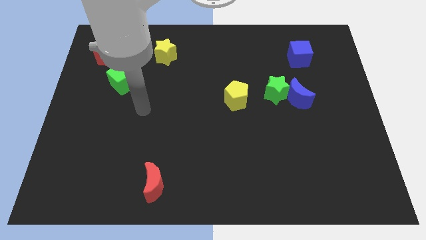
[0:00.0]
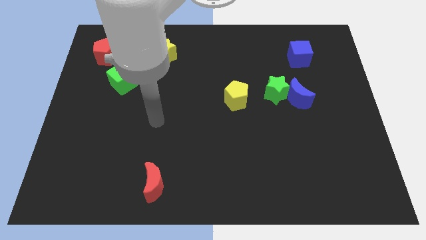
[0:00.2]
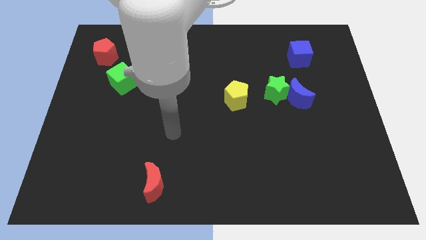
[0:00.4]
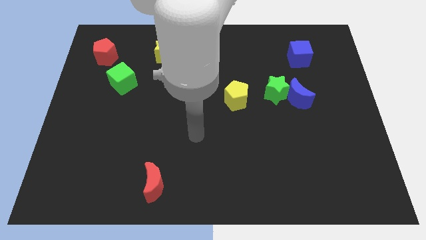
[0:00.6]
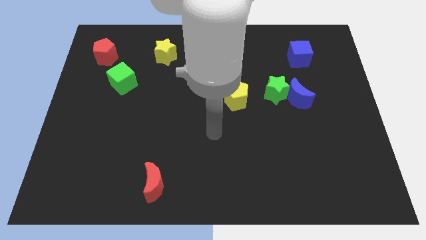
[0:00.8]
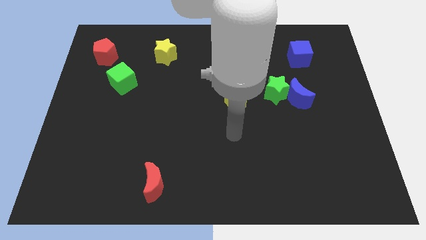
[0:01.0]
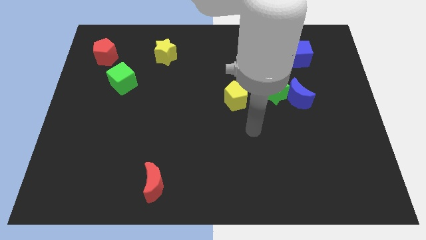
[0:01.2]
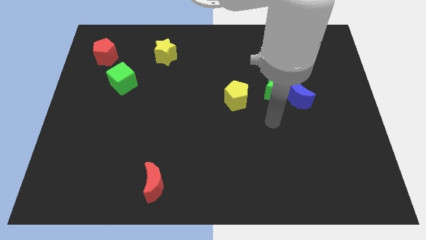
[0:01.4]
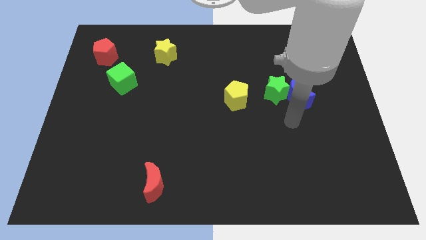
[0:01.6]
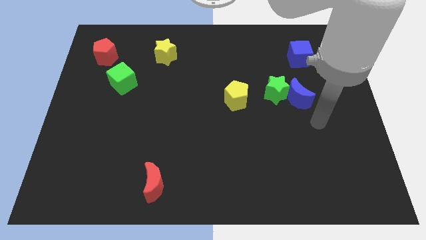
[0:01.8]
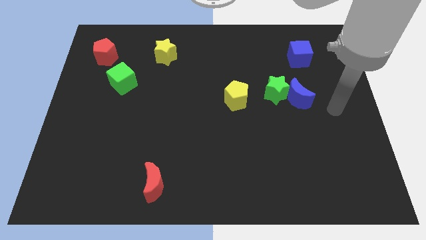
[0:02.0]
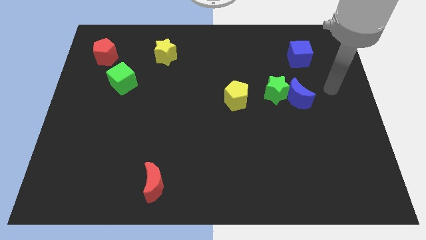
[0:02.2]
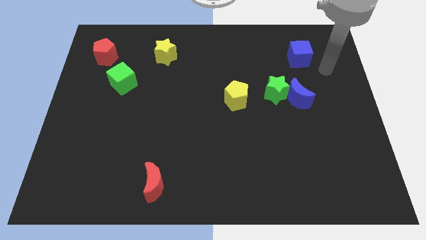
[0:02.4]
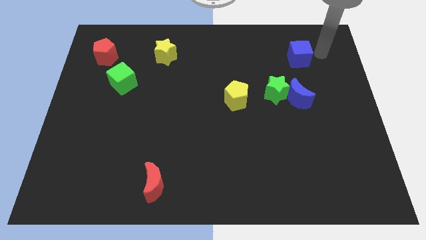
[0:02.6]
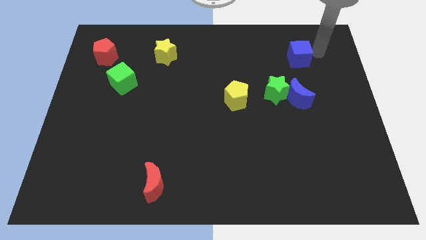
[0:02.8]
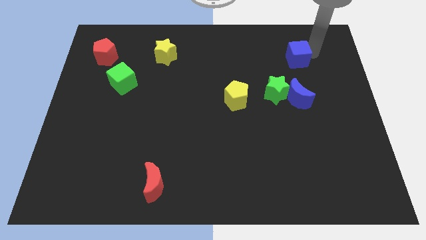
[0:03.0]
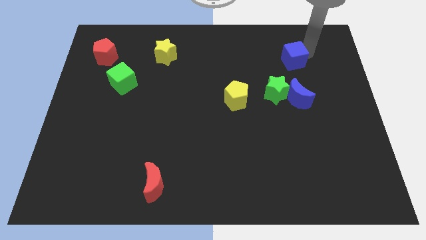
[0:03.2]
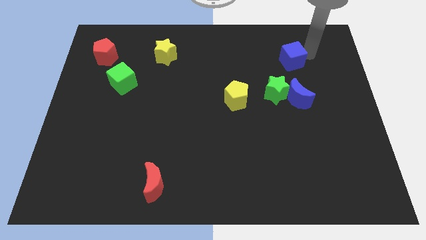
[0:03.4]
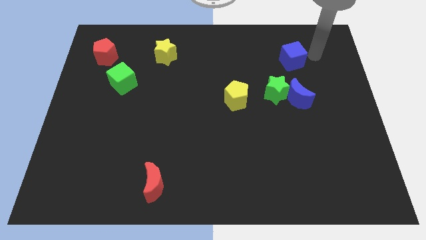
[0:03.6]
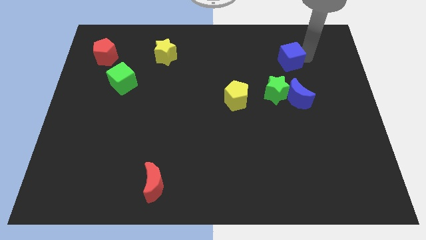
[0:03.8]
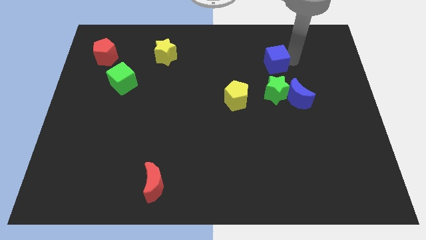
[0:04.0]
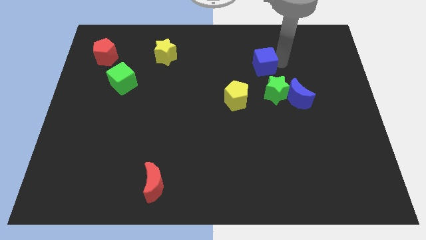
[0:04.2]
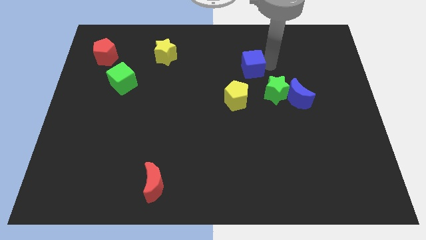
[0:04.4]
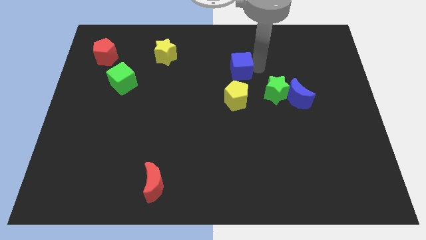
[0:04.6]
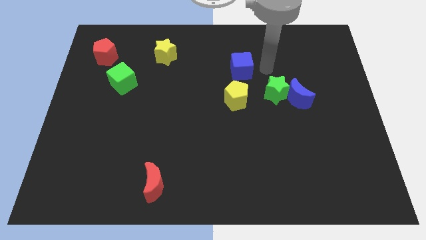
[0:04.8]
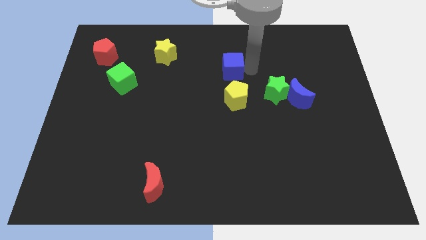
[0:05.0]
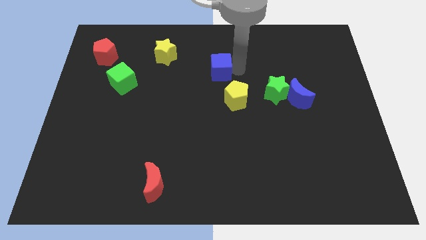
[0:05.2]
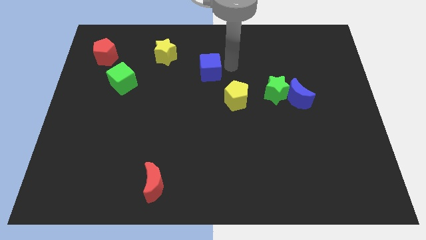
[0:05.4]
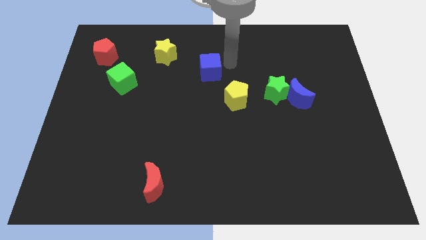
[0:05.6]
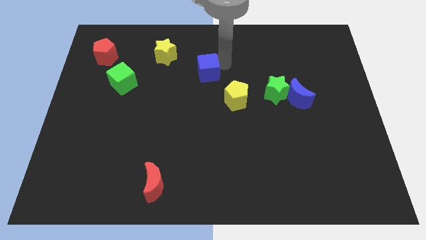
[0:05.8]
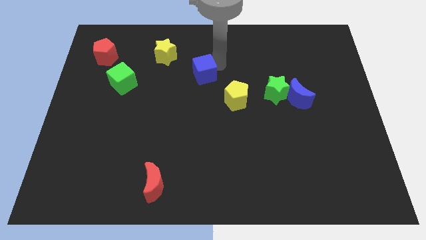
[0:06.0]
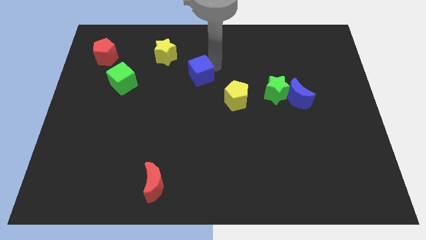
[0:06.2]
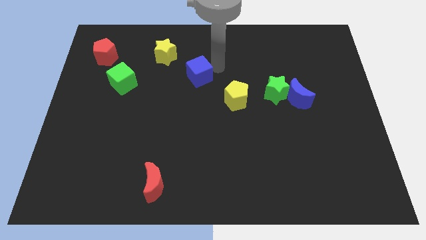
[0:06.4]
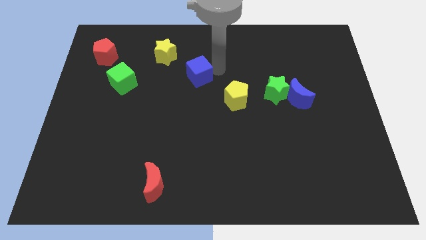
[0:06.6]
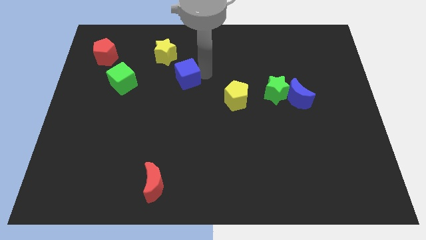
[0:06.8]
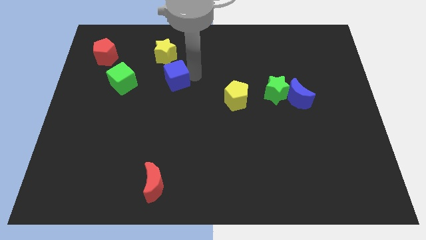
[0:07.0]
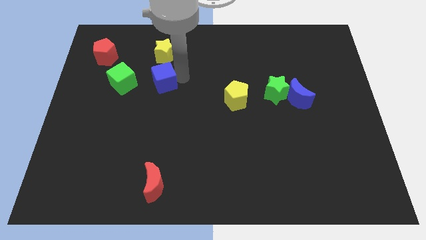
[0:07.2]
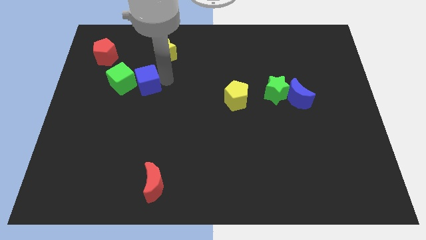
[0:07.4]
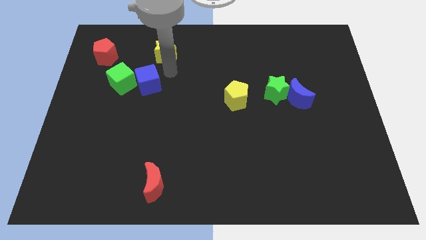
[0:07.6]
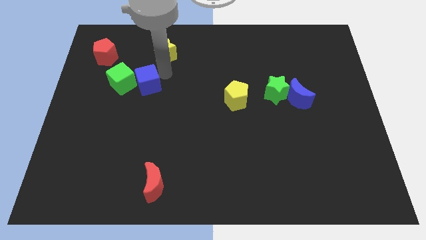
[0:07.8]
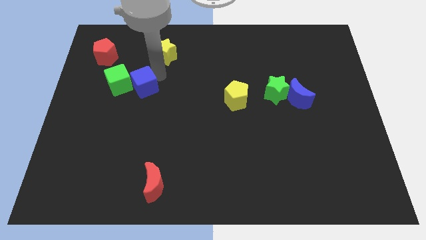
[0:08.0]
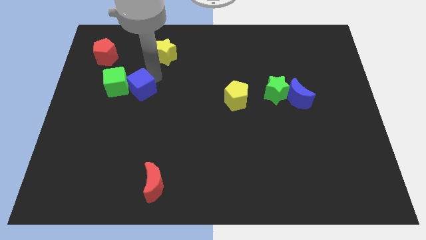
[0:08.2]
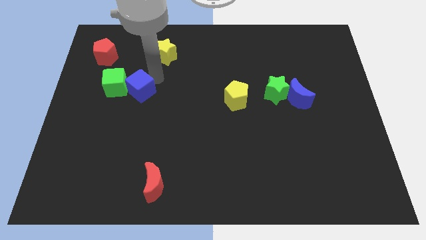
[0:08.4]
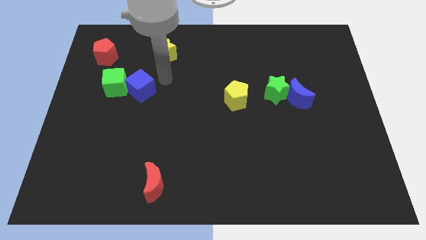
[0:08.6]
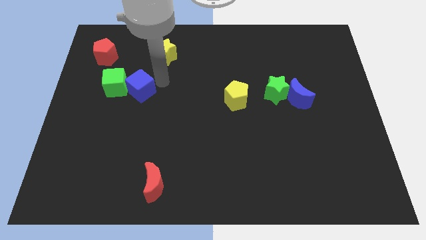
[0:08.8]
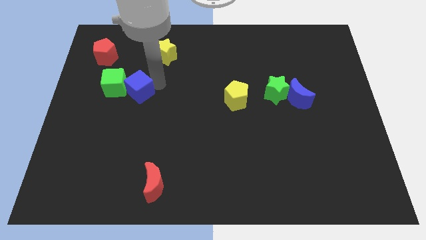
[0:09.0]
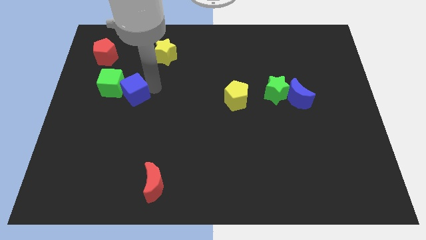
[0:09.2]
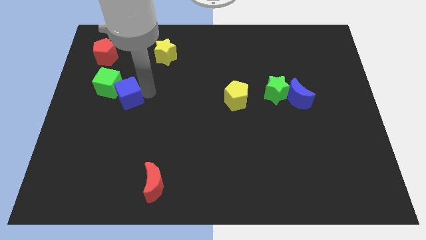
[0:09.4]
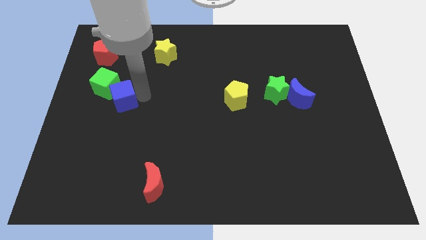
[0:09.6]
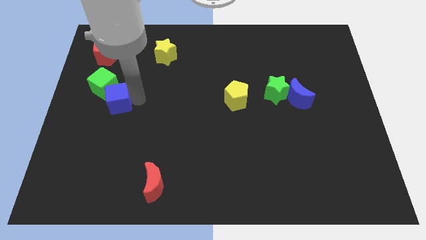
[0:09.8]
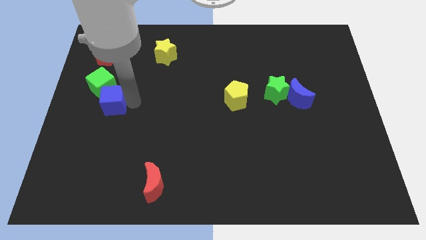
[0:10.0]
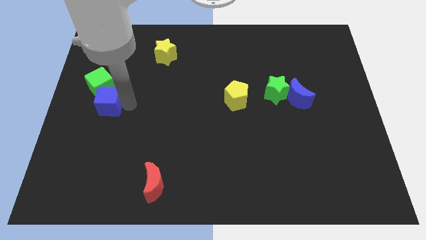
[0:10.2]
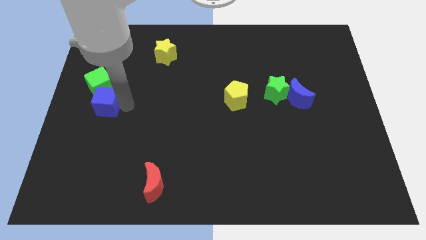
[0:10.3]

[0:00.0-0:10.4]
slide the blue cube to the left side of the board

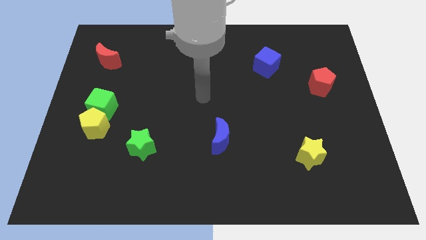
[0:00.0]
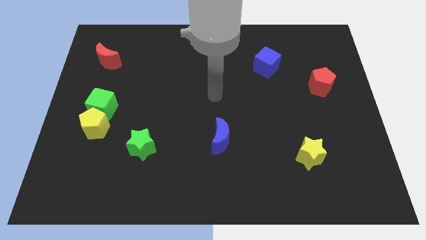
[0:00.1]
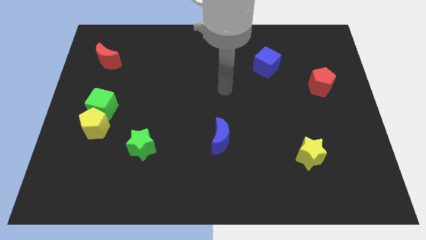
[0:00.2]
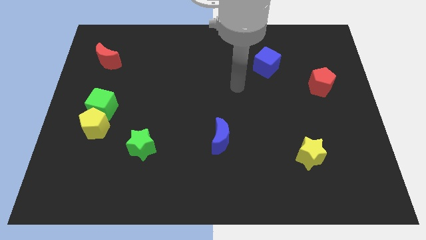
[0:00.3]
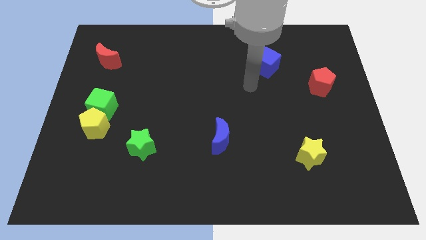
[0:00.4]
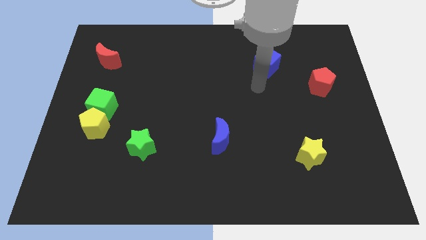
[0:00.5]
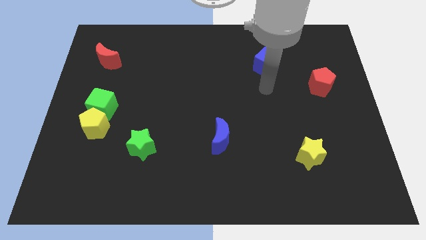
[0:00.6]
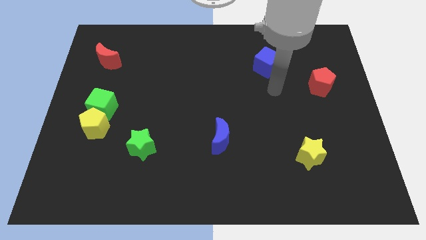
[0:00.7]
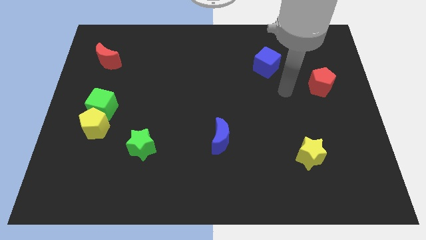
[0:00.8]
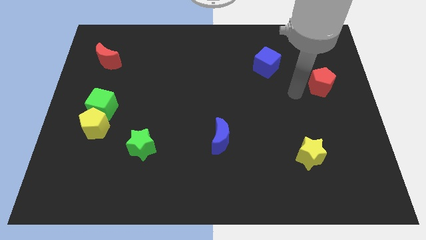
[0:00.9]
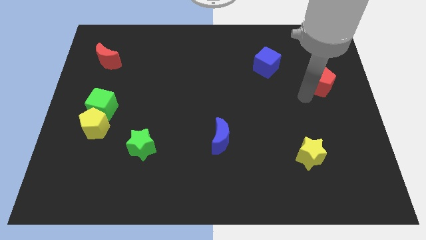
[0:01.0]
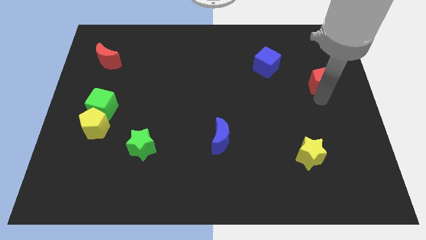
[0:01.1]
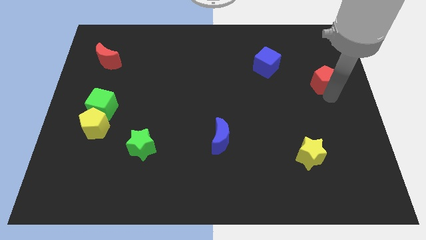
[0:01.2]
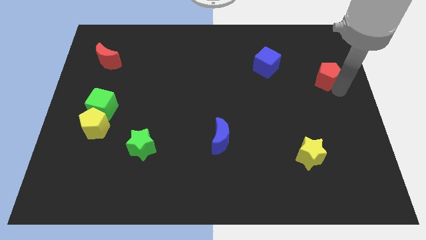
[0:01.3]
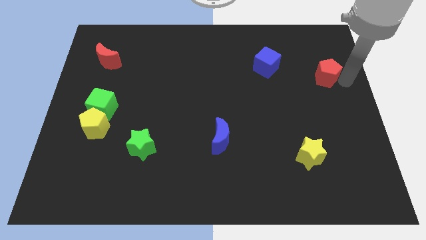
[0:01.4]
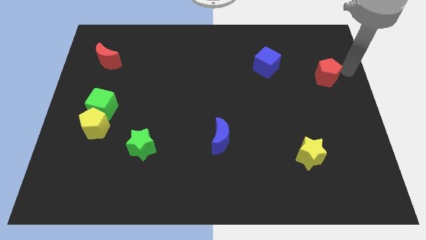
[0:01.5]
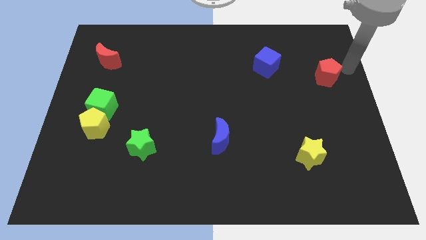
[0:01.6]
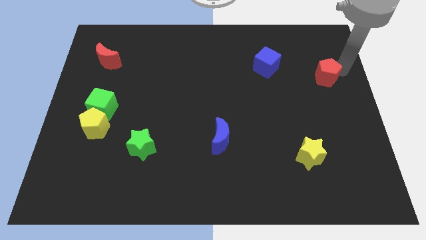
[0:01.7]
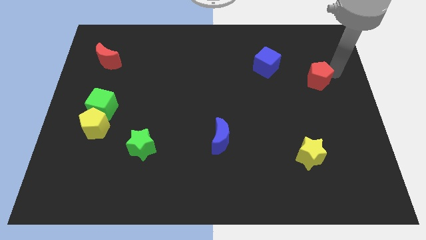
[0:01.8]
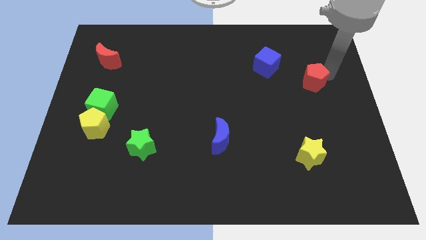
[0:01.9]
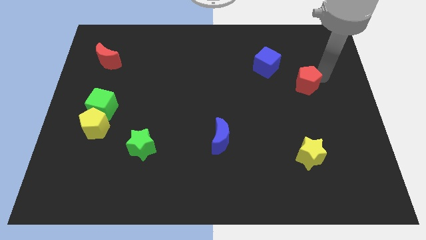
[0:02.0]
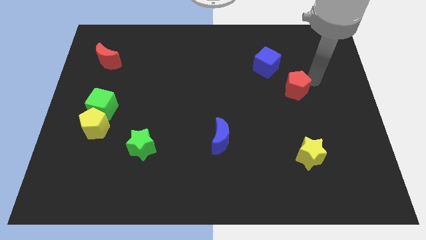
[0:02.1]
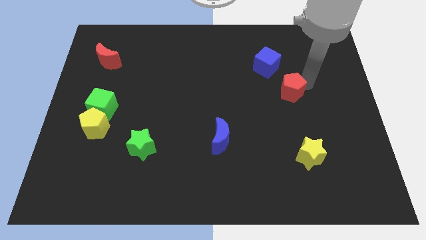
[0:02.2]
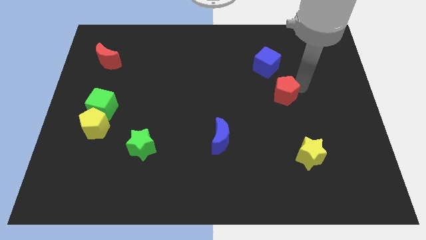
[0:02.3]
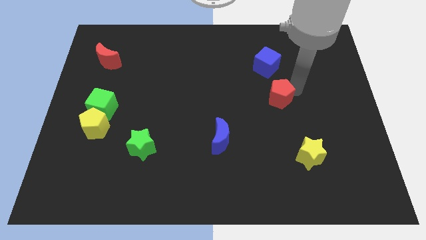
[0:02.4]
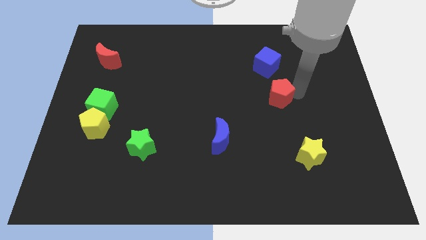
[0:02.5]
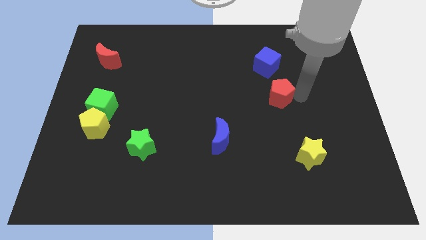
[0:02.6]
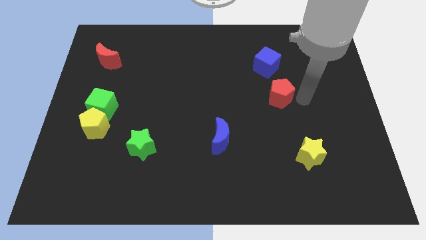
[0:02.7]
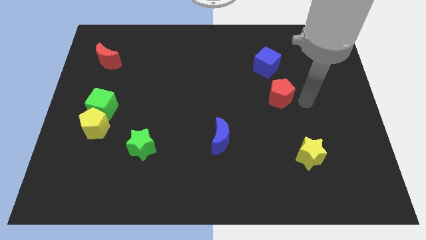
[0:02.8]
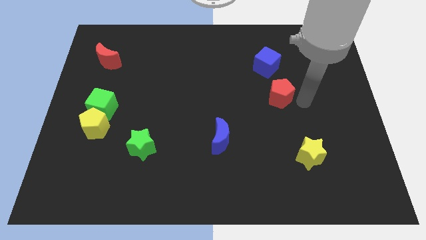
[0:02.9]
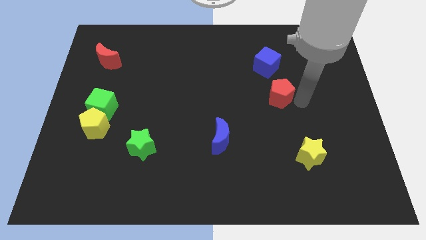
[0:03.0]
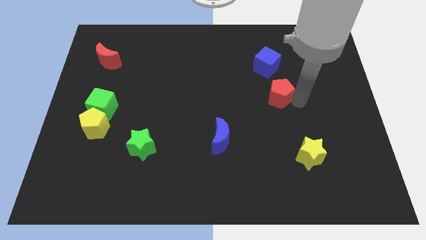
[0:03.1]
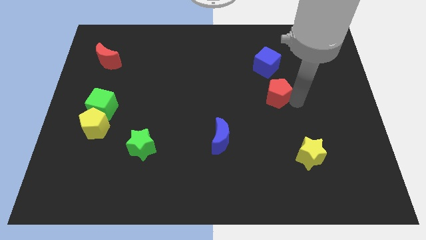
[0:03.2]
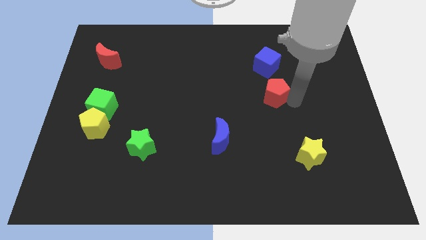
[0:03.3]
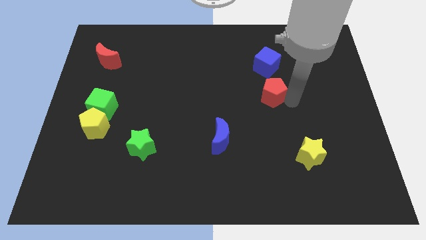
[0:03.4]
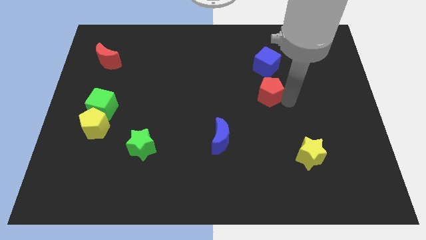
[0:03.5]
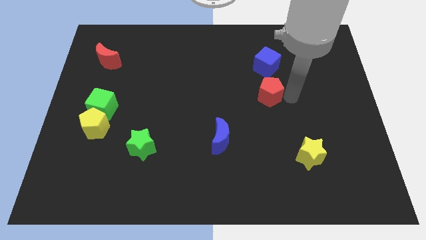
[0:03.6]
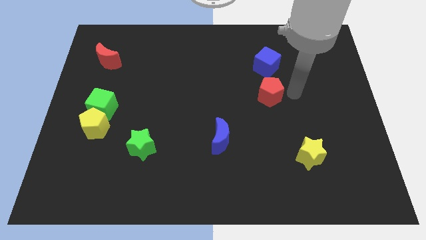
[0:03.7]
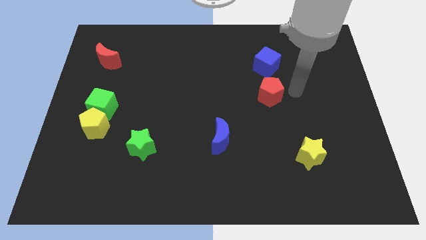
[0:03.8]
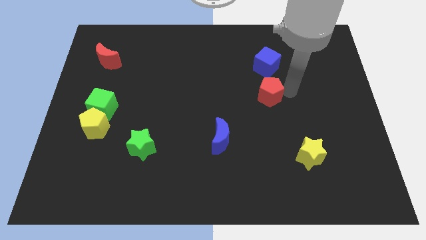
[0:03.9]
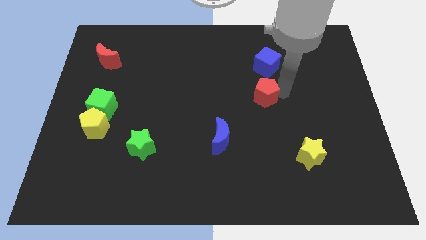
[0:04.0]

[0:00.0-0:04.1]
move the red pentagon to the center
